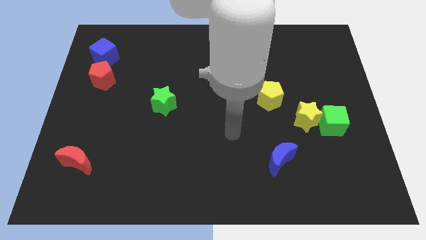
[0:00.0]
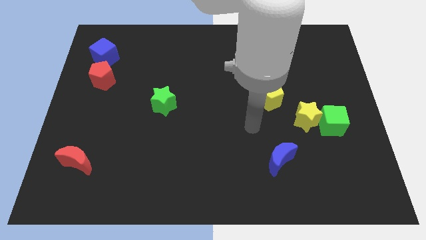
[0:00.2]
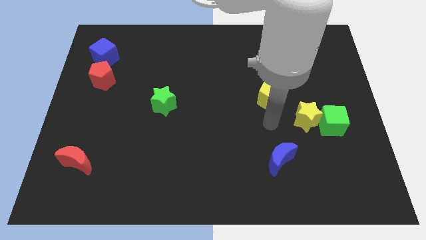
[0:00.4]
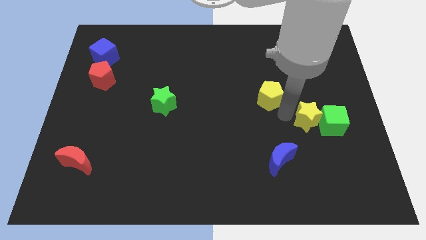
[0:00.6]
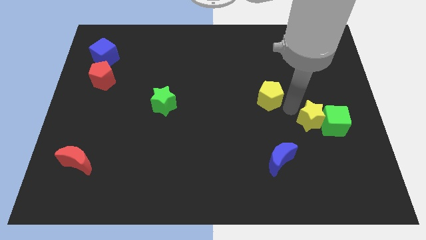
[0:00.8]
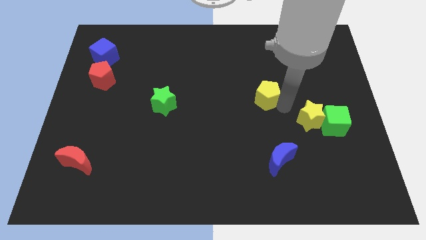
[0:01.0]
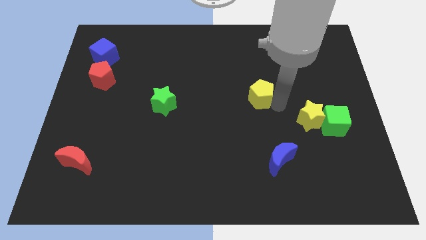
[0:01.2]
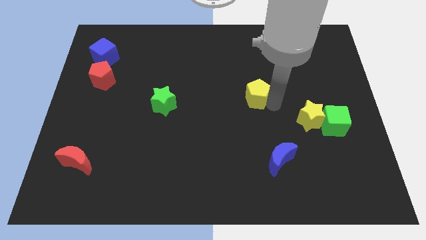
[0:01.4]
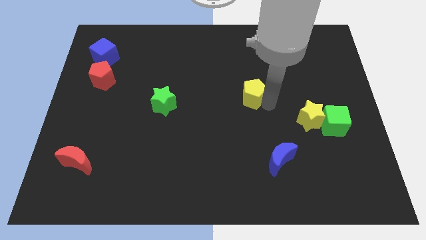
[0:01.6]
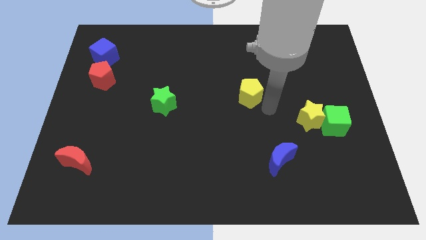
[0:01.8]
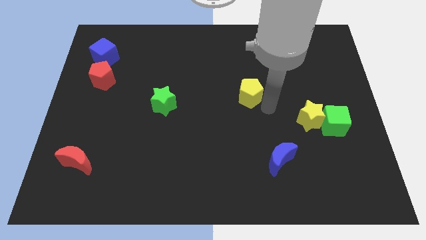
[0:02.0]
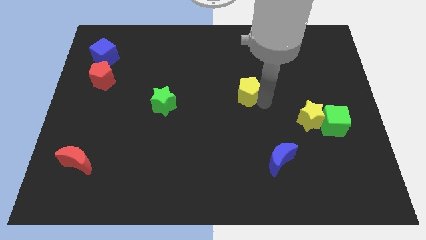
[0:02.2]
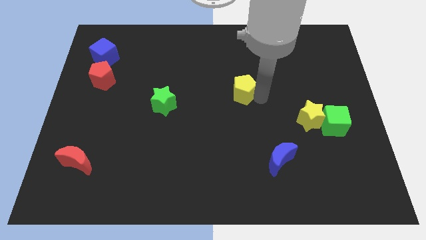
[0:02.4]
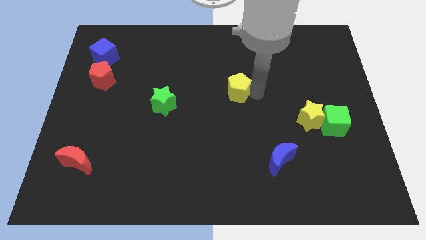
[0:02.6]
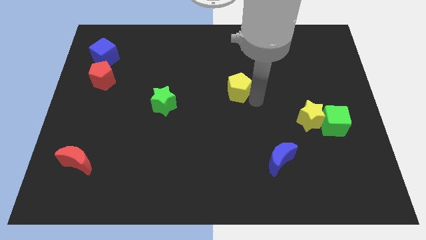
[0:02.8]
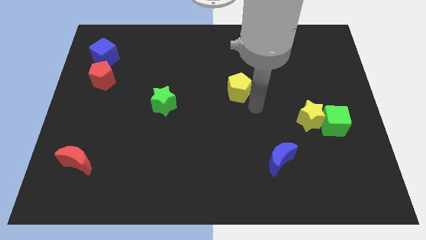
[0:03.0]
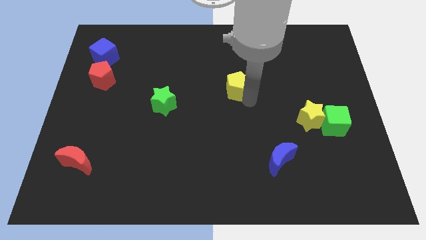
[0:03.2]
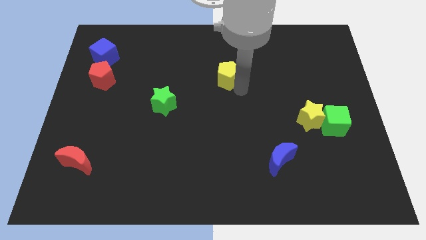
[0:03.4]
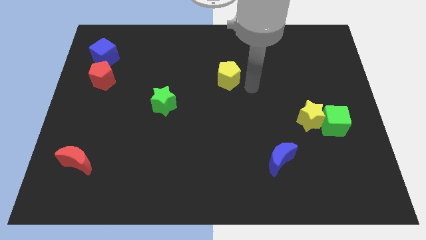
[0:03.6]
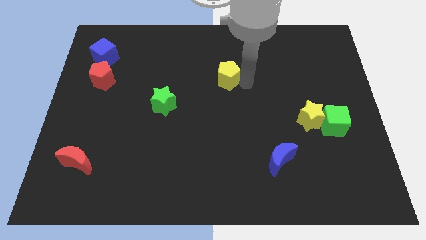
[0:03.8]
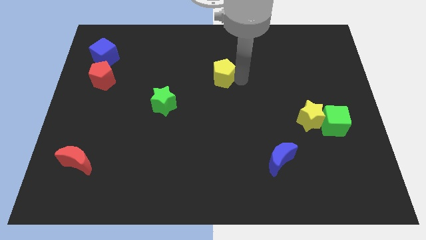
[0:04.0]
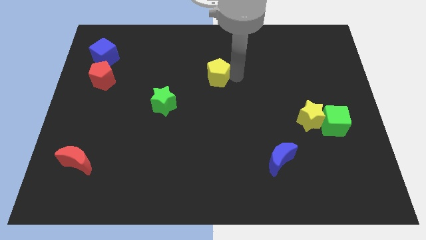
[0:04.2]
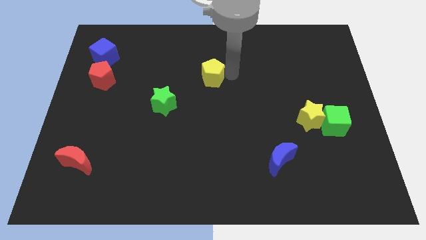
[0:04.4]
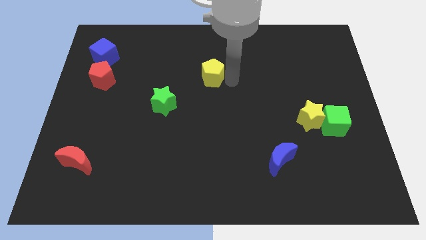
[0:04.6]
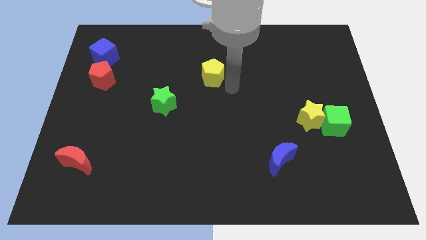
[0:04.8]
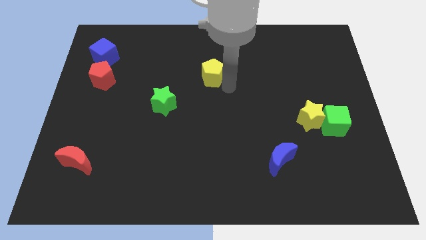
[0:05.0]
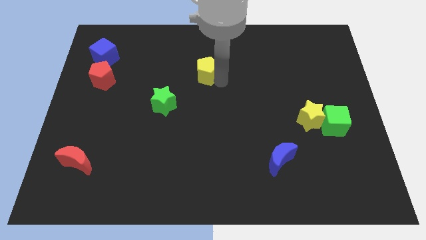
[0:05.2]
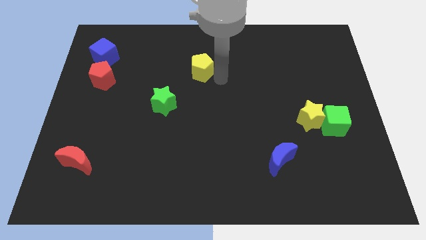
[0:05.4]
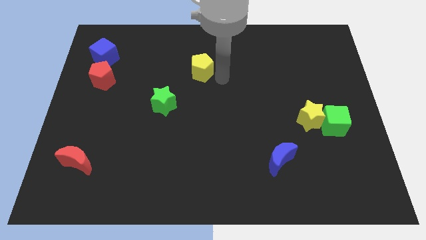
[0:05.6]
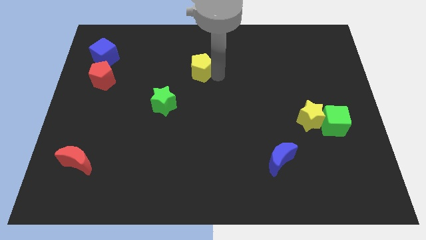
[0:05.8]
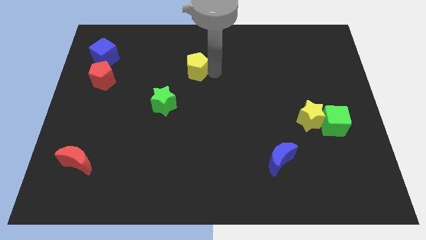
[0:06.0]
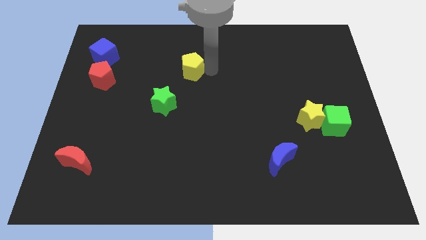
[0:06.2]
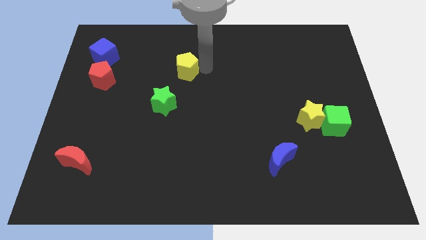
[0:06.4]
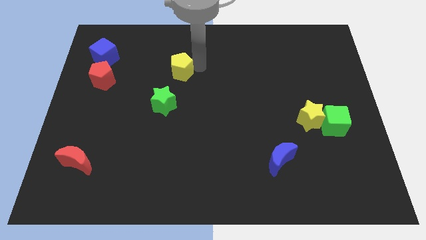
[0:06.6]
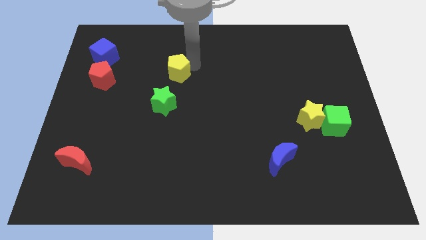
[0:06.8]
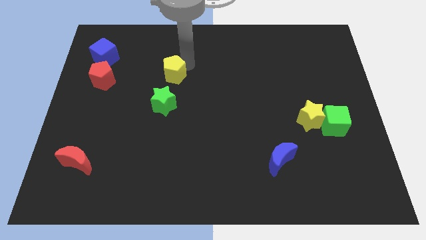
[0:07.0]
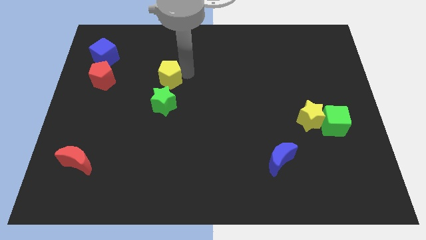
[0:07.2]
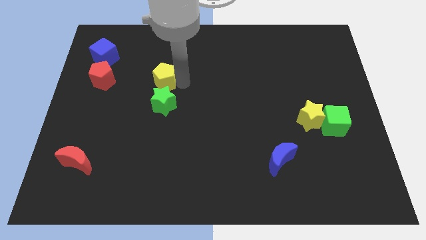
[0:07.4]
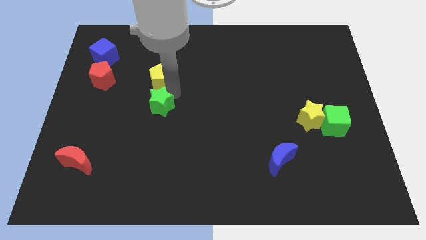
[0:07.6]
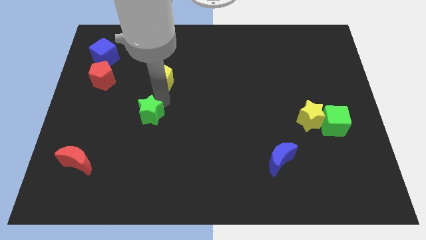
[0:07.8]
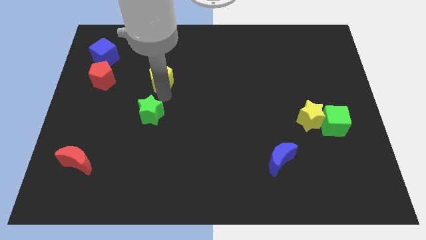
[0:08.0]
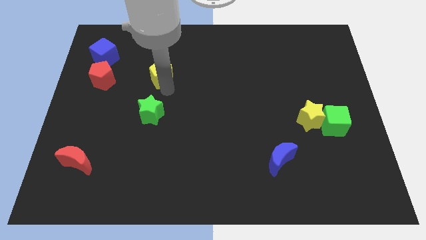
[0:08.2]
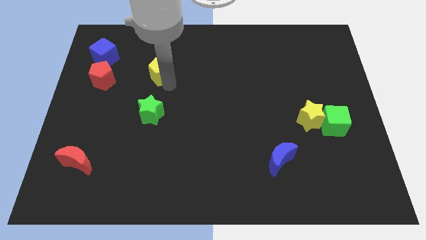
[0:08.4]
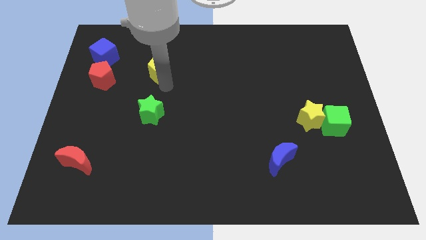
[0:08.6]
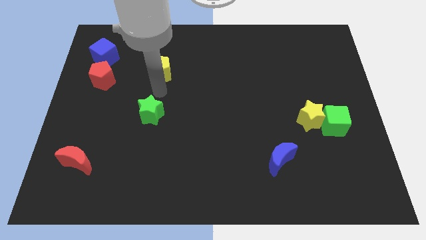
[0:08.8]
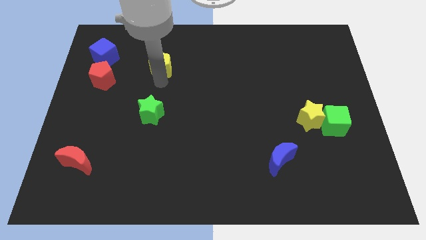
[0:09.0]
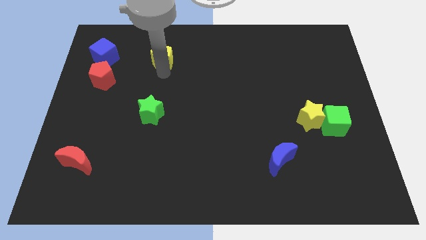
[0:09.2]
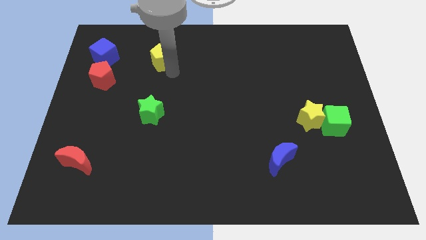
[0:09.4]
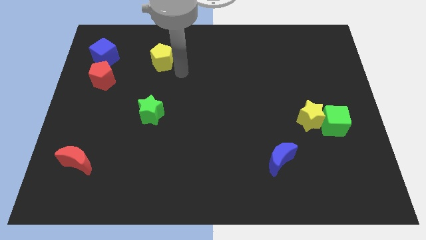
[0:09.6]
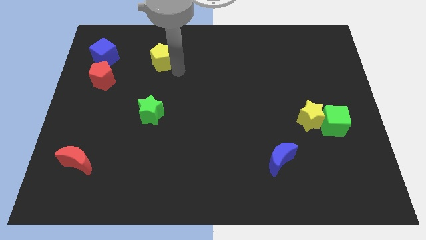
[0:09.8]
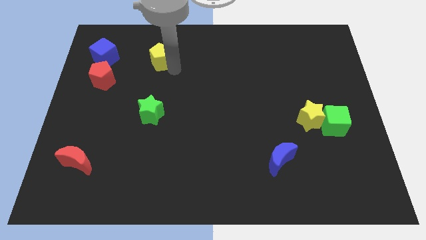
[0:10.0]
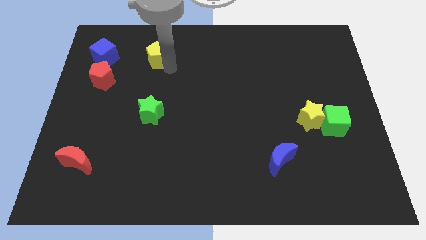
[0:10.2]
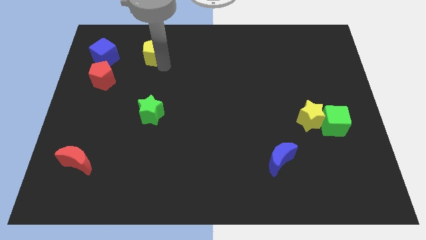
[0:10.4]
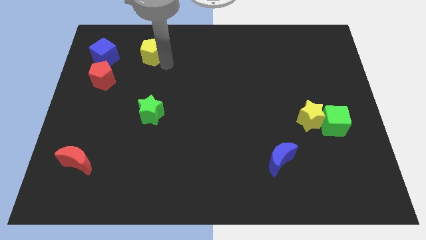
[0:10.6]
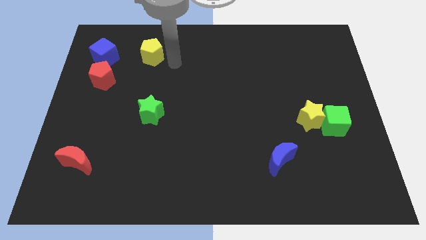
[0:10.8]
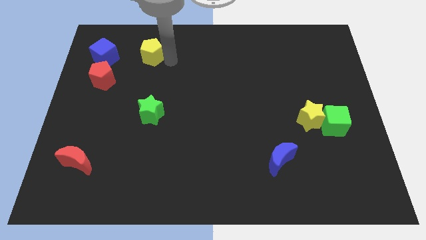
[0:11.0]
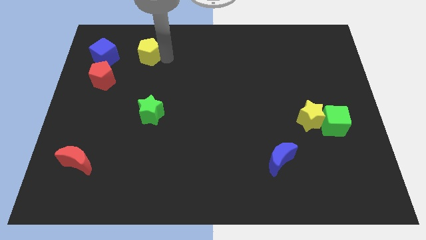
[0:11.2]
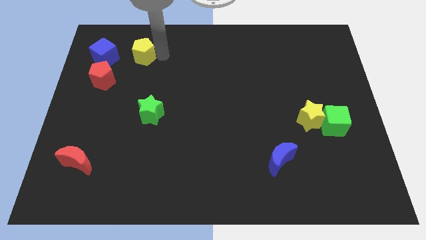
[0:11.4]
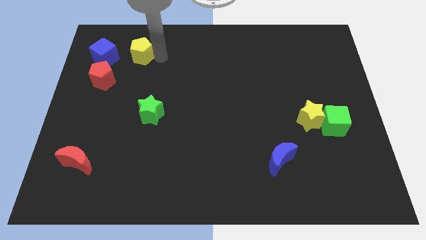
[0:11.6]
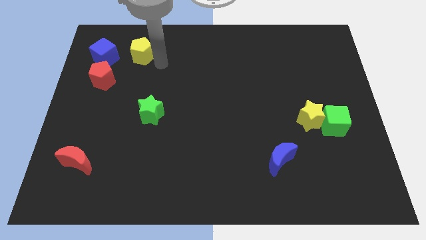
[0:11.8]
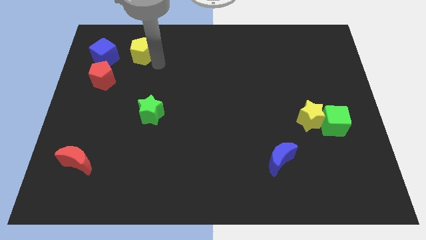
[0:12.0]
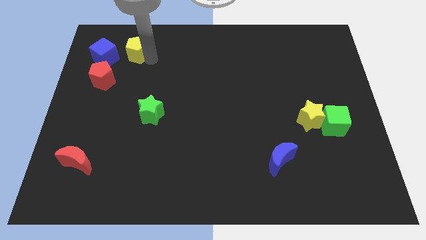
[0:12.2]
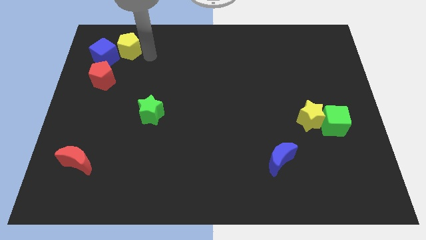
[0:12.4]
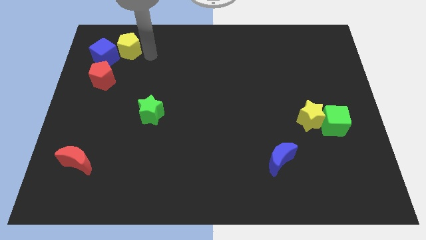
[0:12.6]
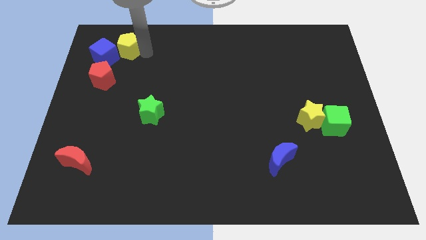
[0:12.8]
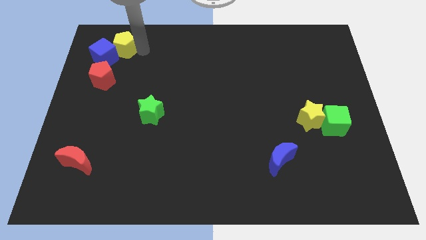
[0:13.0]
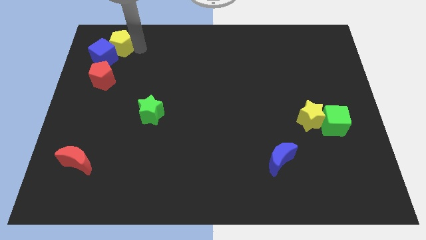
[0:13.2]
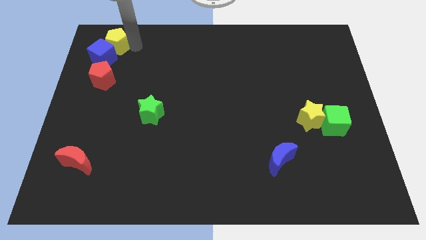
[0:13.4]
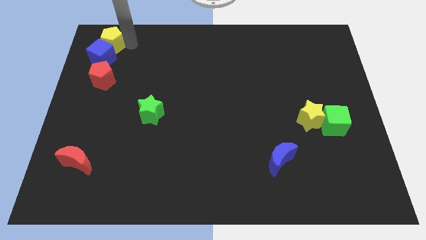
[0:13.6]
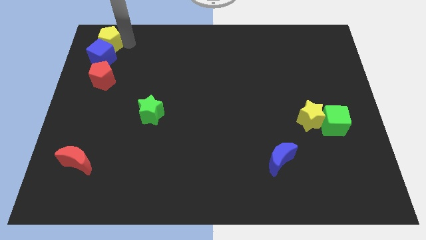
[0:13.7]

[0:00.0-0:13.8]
slide the yellow pentagon to the top left corner
